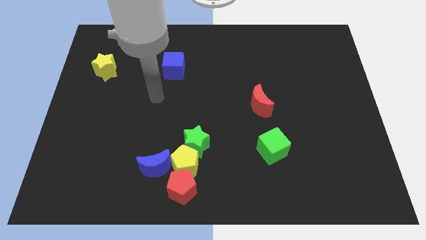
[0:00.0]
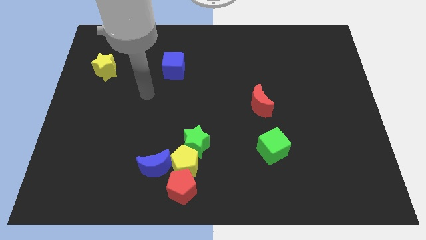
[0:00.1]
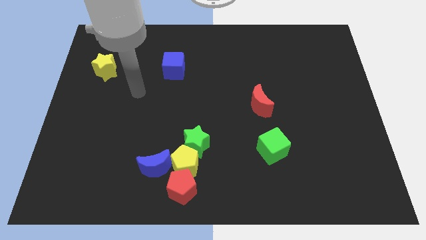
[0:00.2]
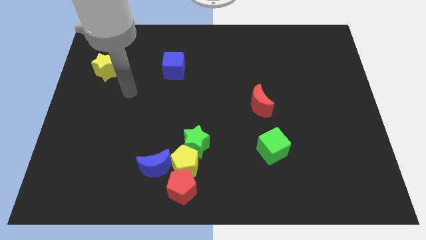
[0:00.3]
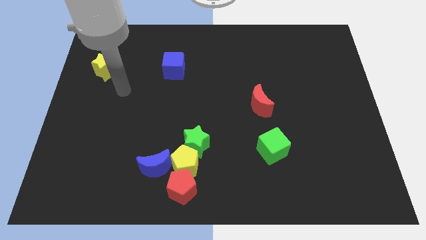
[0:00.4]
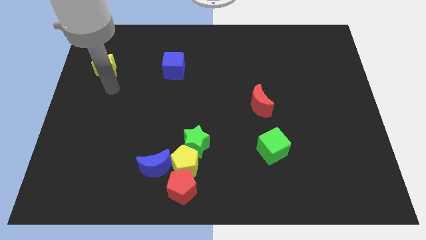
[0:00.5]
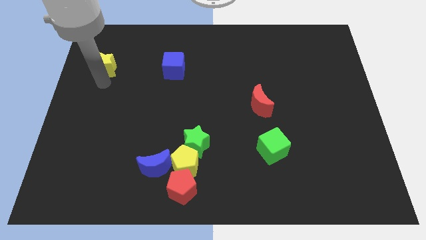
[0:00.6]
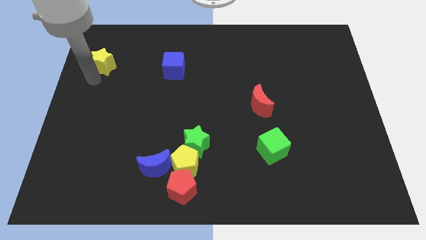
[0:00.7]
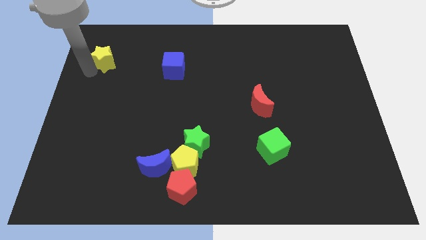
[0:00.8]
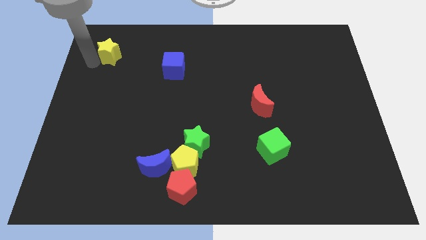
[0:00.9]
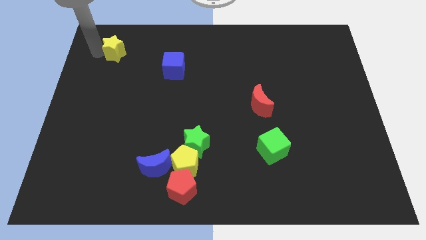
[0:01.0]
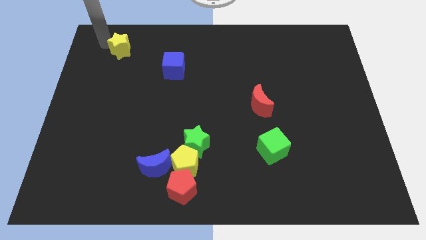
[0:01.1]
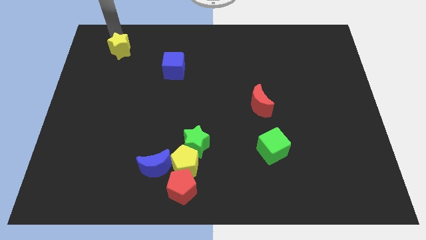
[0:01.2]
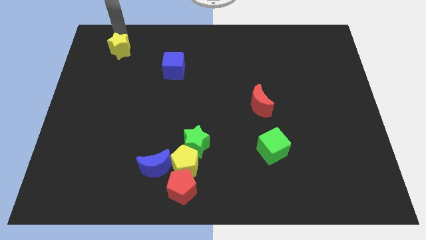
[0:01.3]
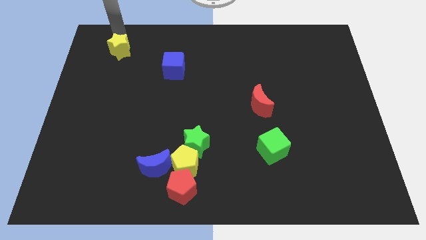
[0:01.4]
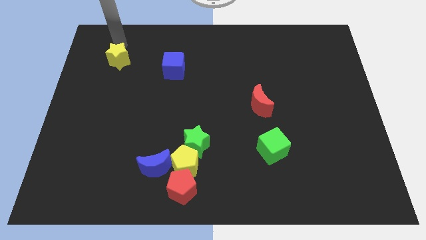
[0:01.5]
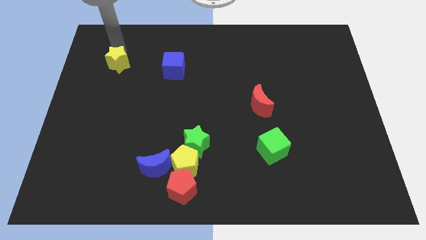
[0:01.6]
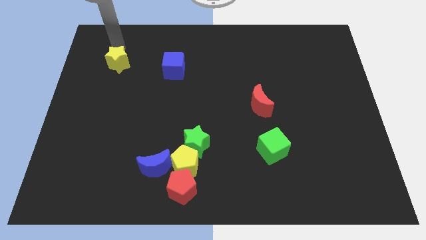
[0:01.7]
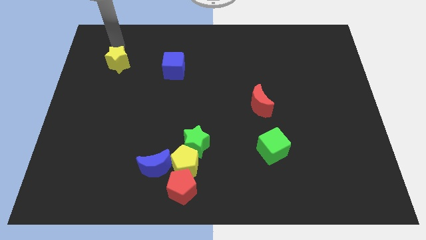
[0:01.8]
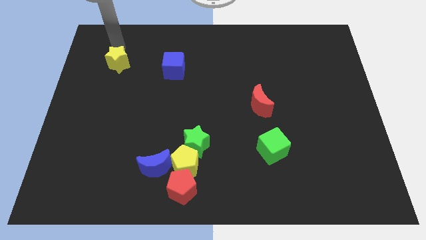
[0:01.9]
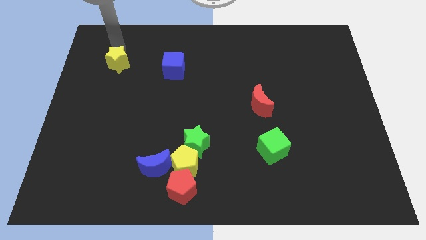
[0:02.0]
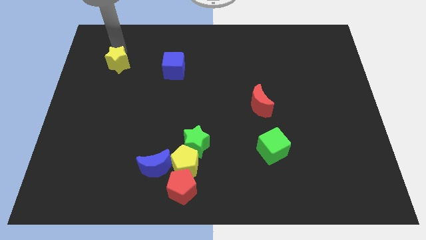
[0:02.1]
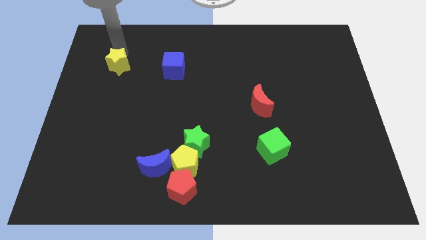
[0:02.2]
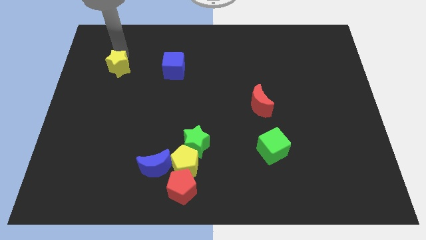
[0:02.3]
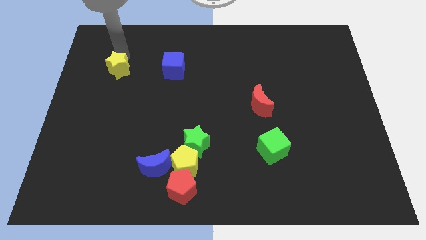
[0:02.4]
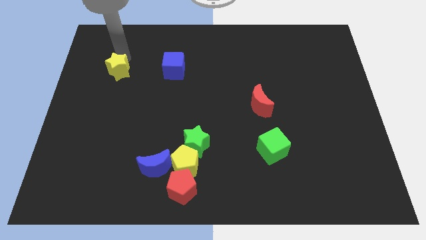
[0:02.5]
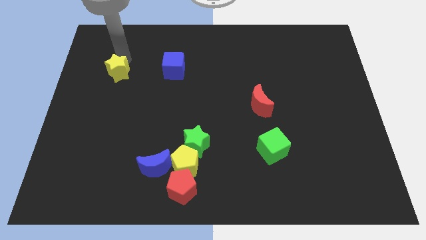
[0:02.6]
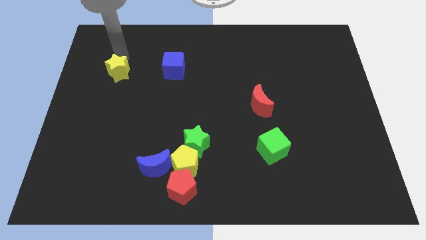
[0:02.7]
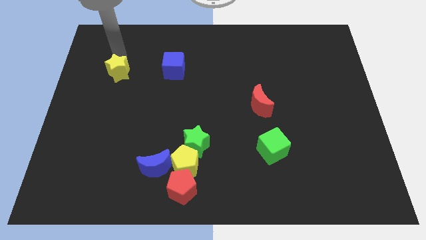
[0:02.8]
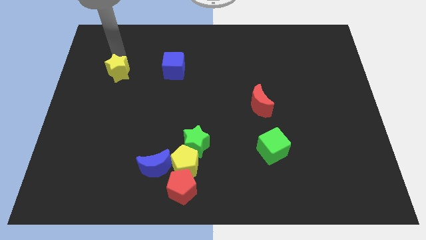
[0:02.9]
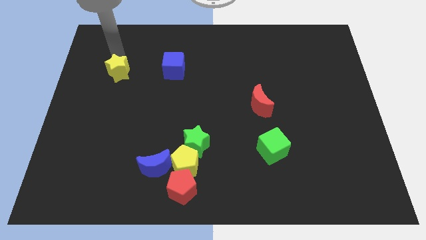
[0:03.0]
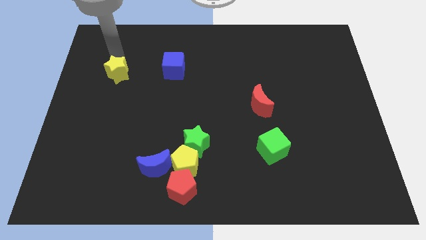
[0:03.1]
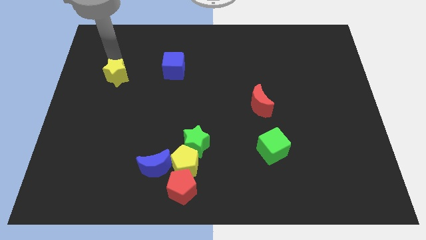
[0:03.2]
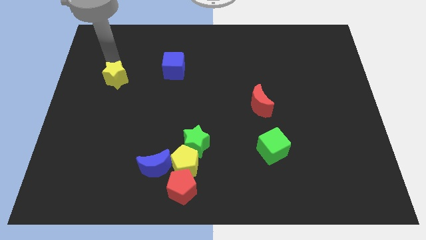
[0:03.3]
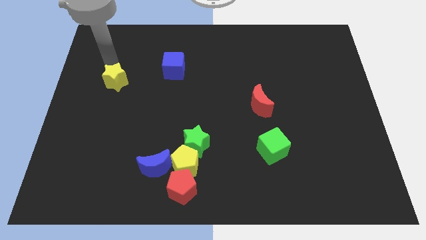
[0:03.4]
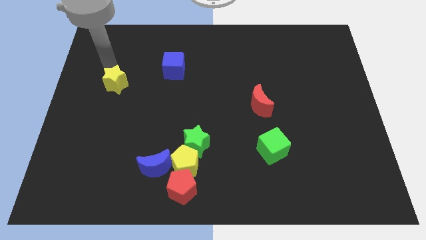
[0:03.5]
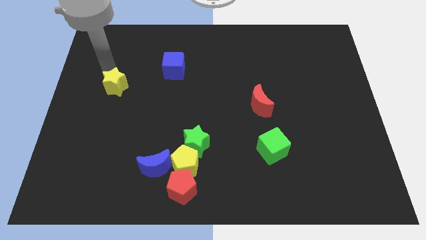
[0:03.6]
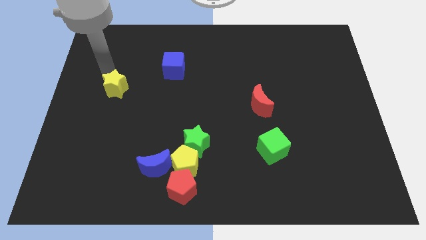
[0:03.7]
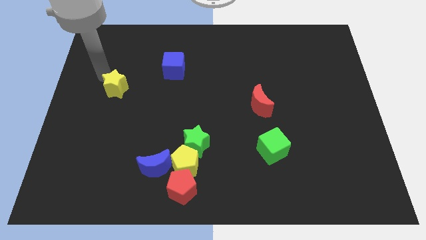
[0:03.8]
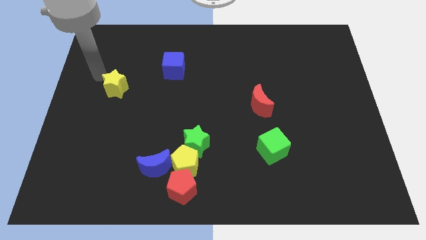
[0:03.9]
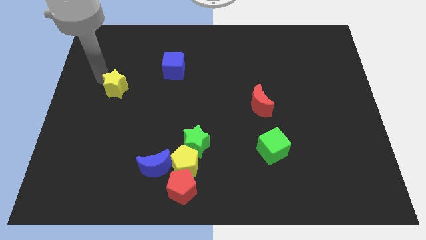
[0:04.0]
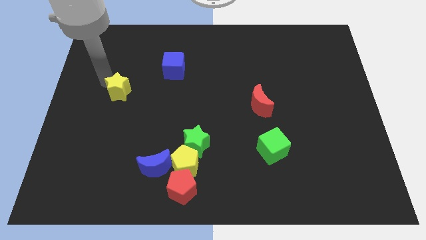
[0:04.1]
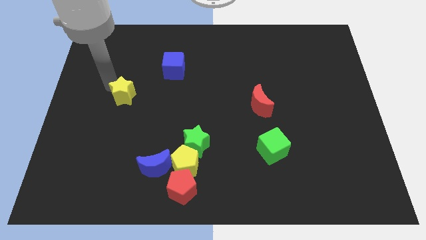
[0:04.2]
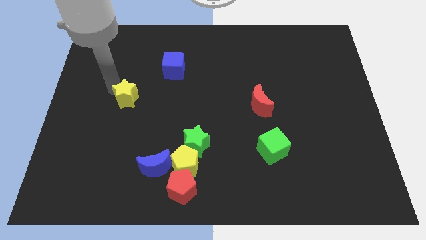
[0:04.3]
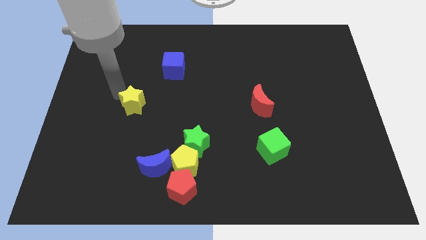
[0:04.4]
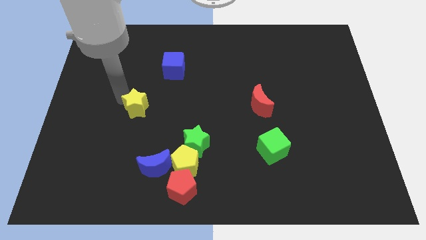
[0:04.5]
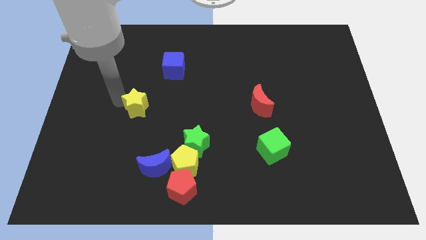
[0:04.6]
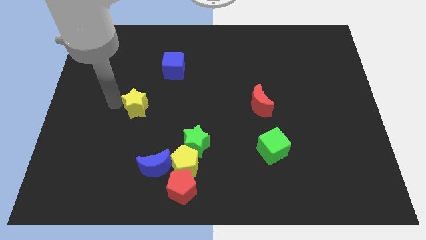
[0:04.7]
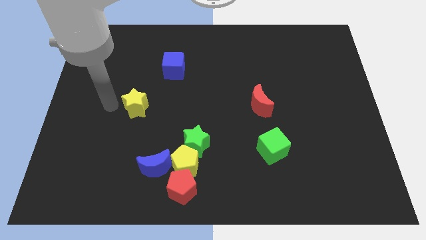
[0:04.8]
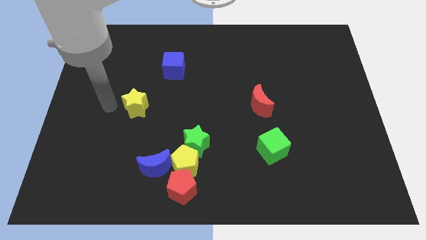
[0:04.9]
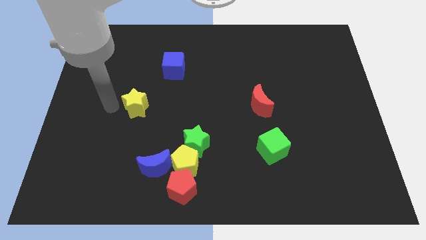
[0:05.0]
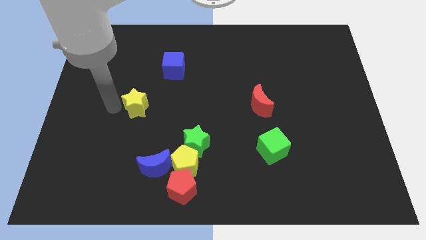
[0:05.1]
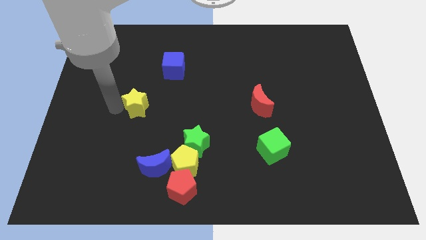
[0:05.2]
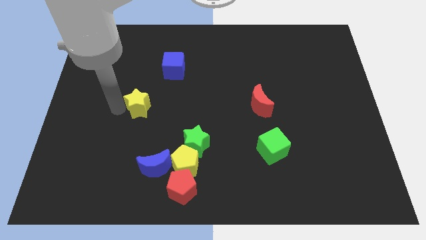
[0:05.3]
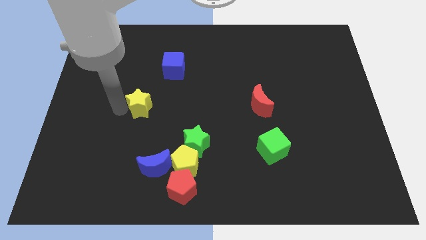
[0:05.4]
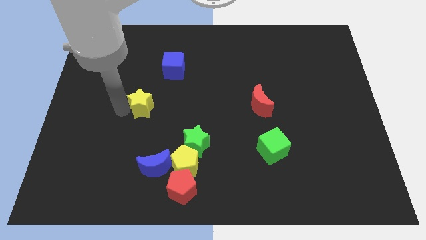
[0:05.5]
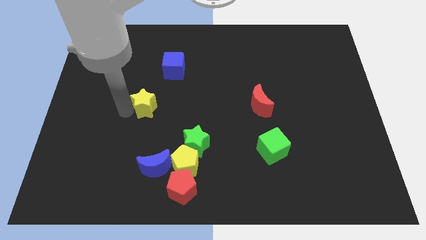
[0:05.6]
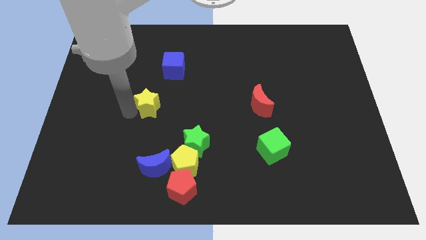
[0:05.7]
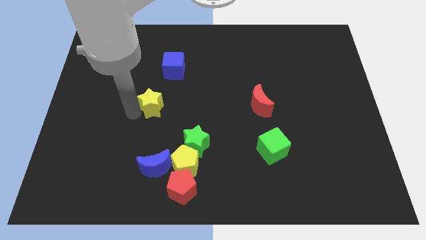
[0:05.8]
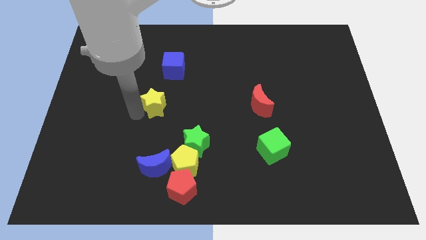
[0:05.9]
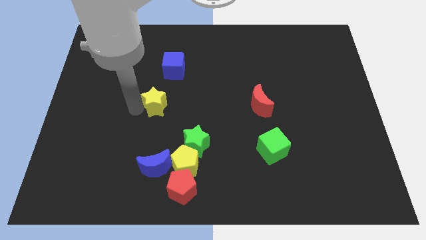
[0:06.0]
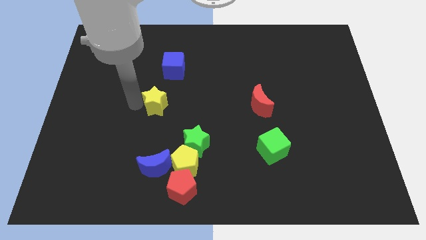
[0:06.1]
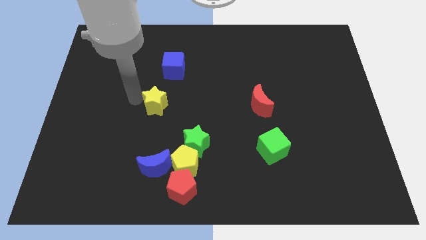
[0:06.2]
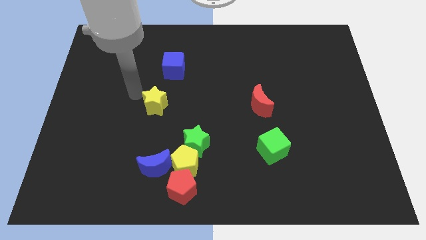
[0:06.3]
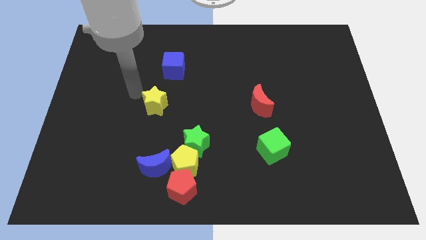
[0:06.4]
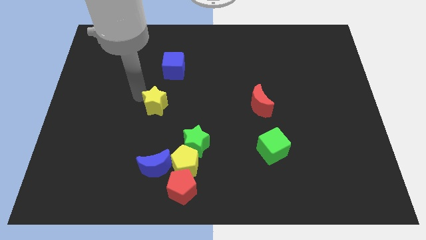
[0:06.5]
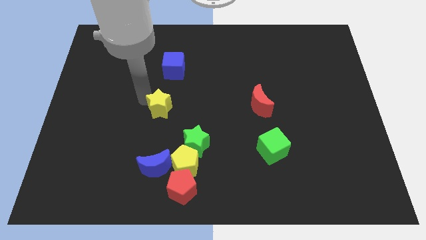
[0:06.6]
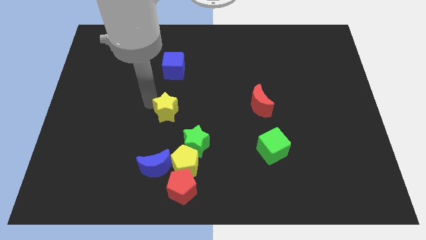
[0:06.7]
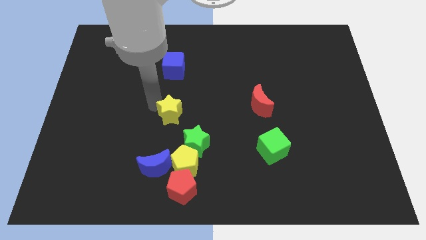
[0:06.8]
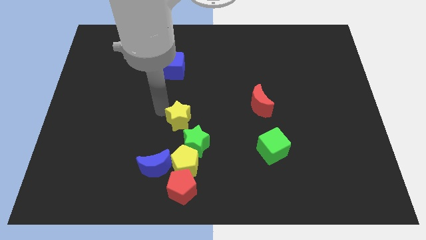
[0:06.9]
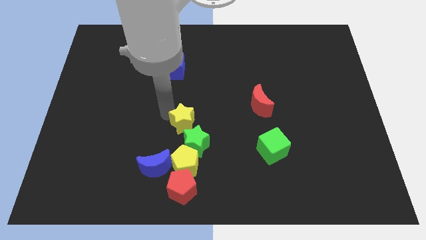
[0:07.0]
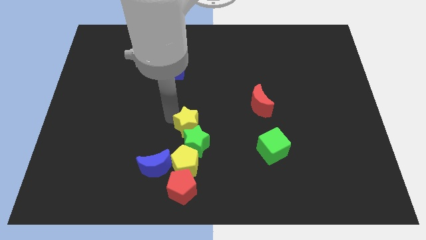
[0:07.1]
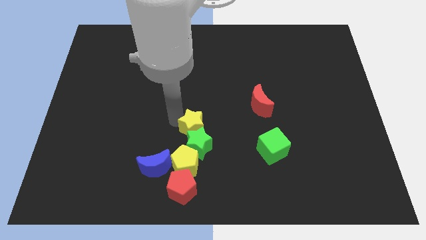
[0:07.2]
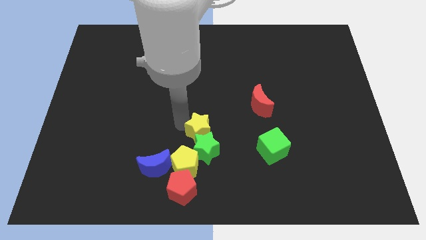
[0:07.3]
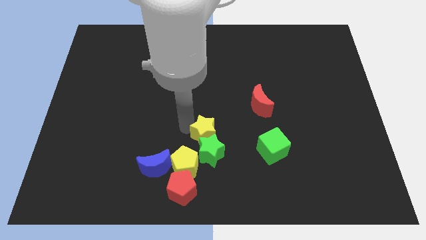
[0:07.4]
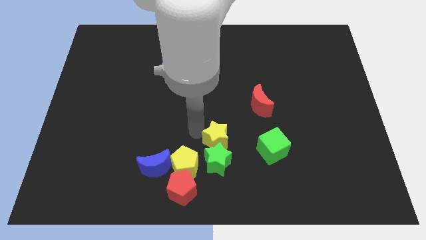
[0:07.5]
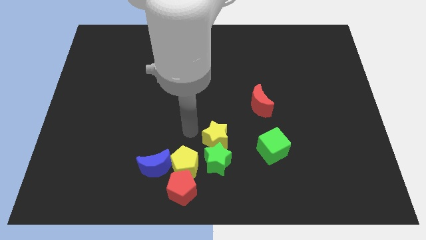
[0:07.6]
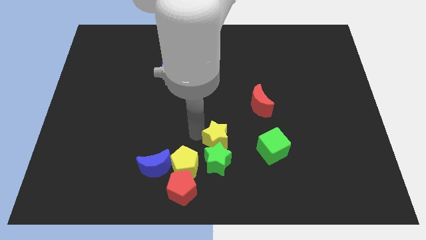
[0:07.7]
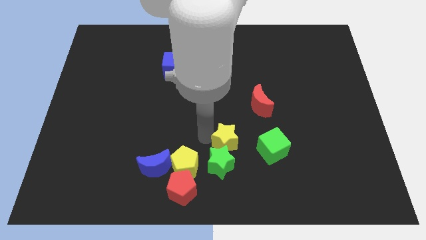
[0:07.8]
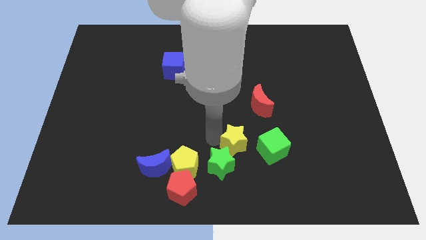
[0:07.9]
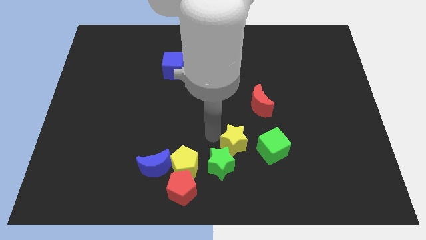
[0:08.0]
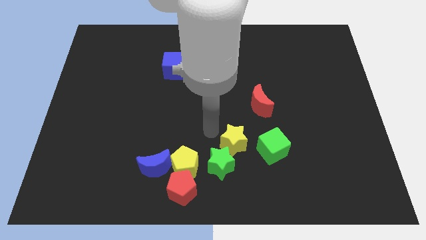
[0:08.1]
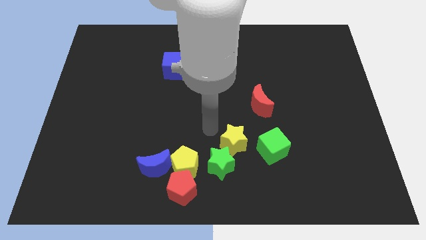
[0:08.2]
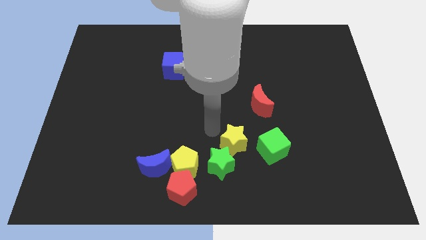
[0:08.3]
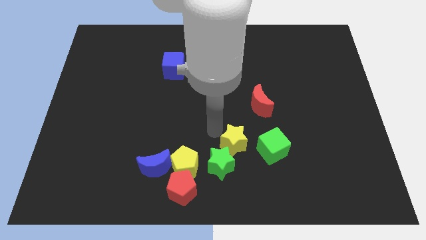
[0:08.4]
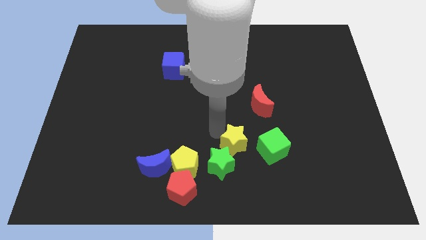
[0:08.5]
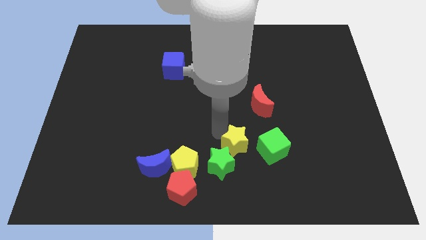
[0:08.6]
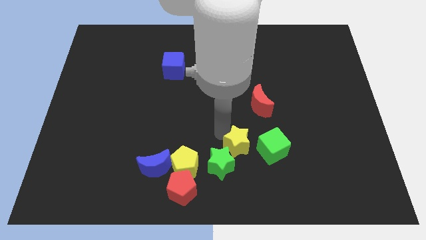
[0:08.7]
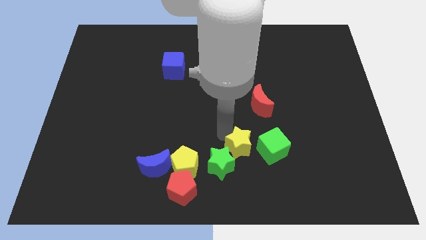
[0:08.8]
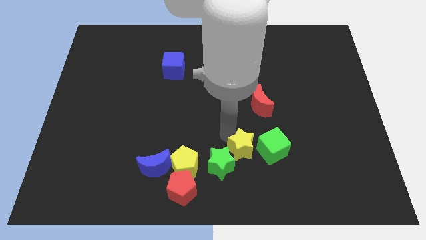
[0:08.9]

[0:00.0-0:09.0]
slide the yellow star below the red moon
